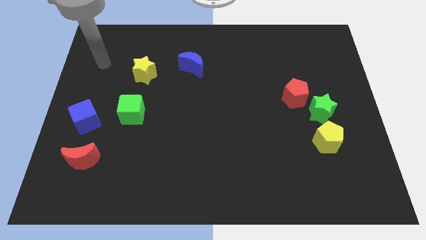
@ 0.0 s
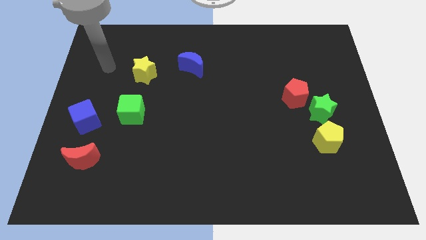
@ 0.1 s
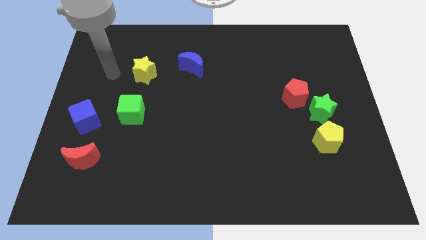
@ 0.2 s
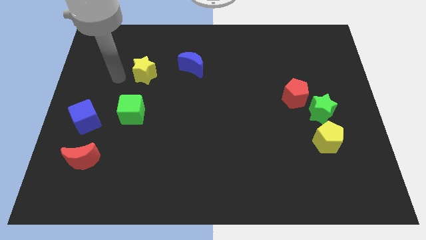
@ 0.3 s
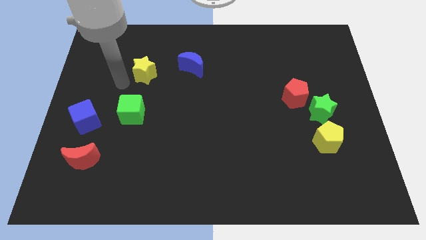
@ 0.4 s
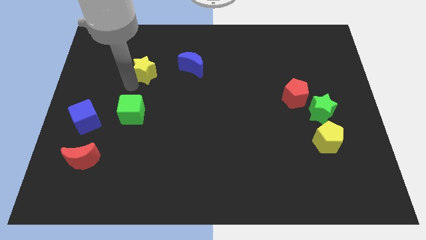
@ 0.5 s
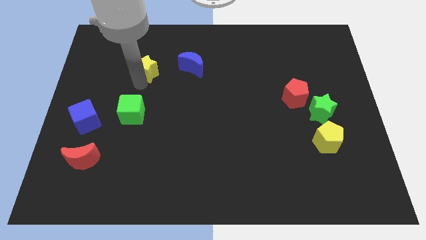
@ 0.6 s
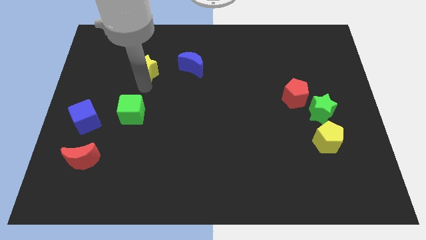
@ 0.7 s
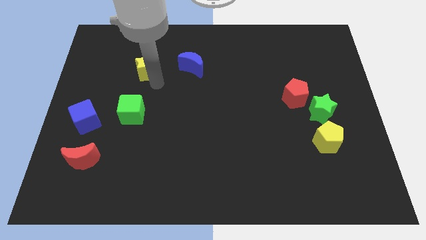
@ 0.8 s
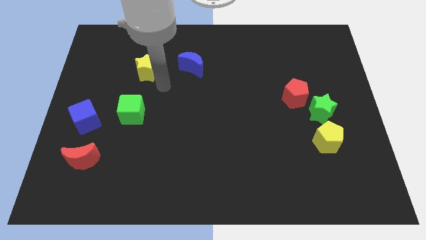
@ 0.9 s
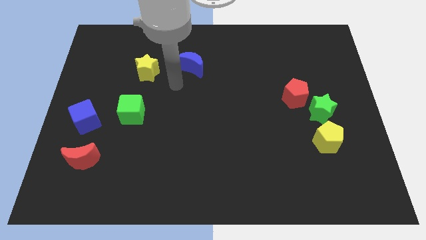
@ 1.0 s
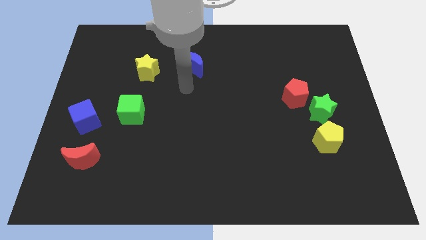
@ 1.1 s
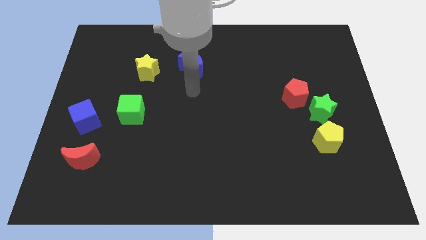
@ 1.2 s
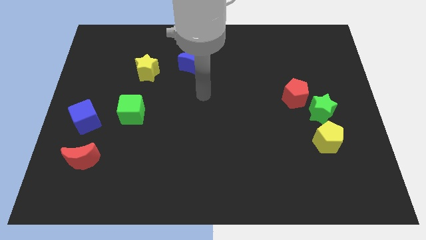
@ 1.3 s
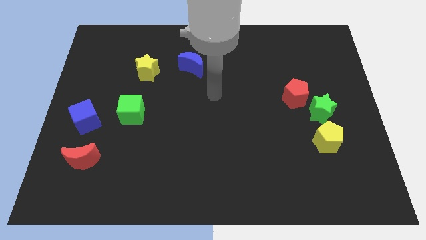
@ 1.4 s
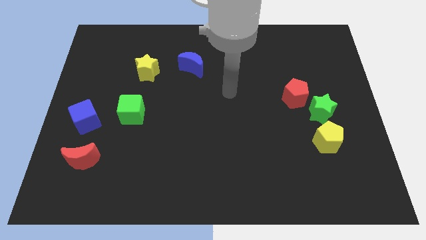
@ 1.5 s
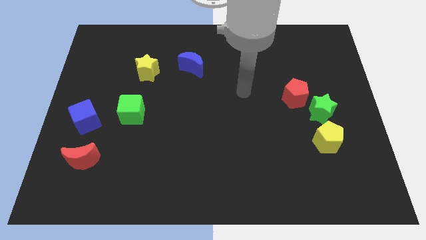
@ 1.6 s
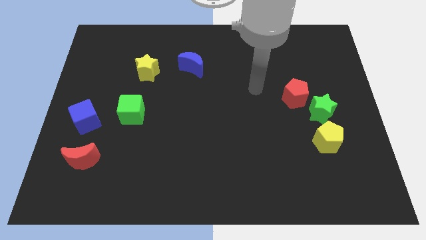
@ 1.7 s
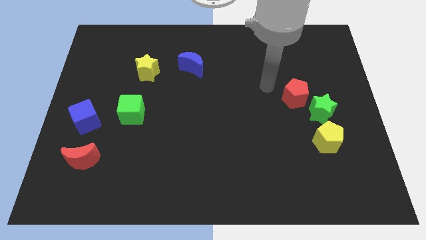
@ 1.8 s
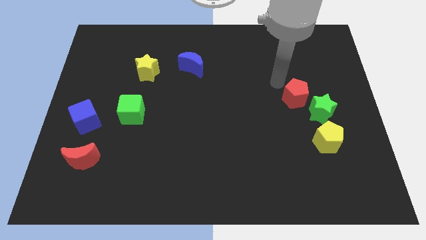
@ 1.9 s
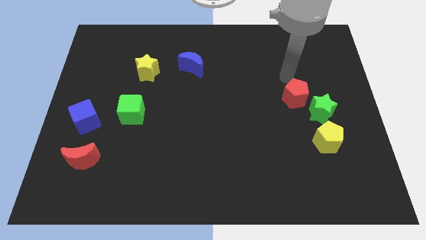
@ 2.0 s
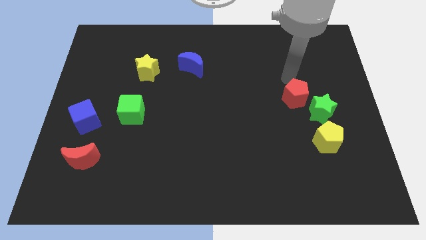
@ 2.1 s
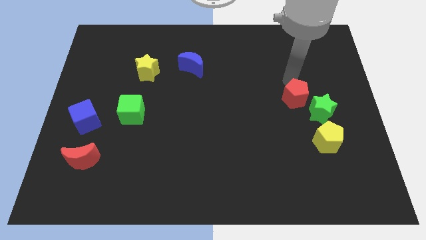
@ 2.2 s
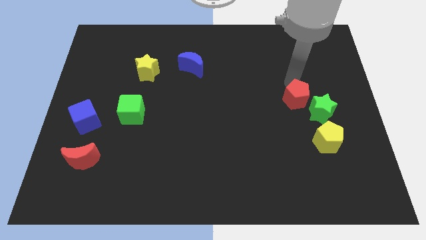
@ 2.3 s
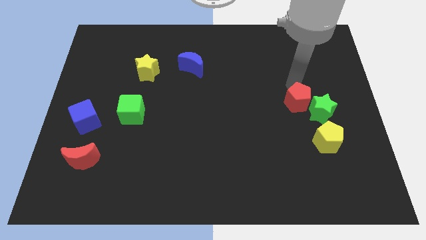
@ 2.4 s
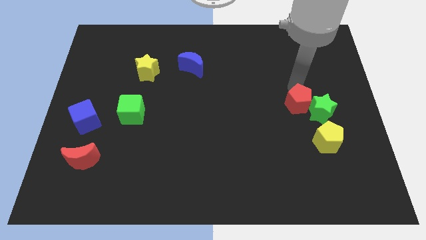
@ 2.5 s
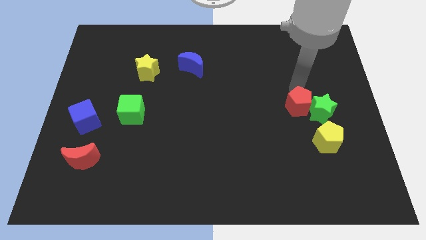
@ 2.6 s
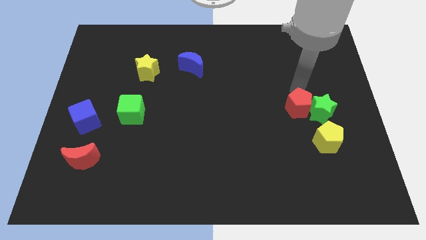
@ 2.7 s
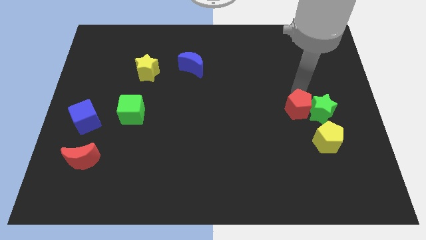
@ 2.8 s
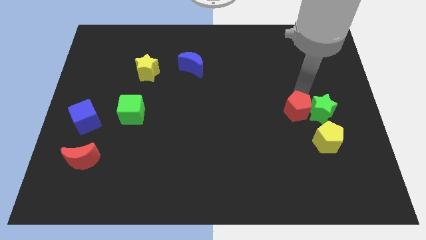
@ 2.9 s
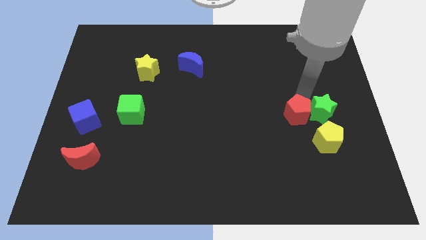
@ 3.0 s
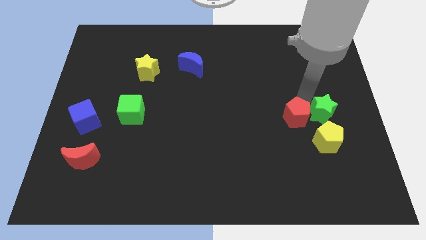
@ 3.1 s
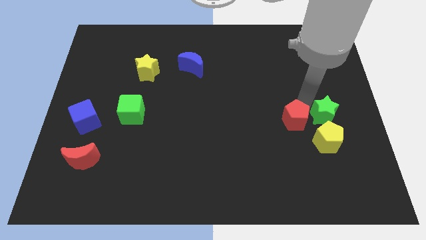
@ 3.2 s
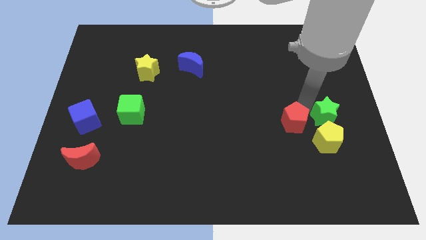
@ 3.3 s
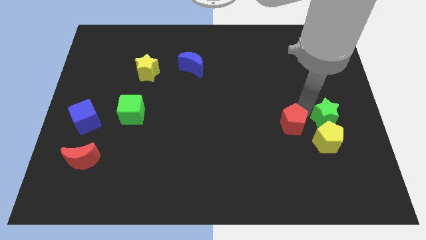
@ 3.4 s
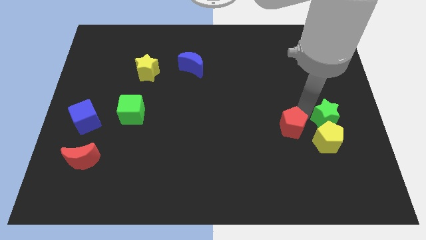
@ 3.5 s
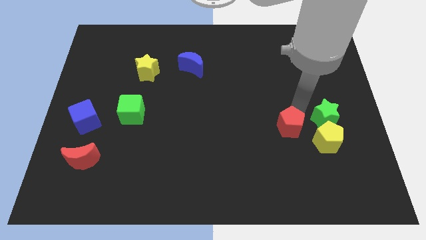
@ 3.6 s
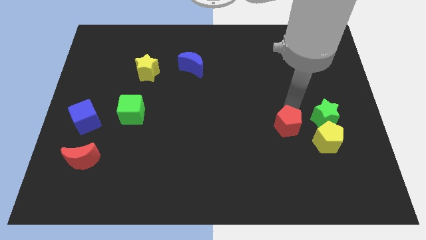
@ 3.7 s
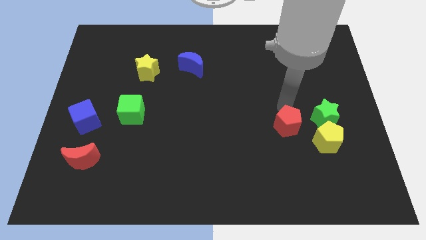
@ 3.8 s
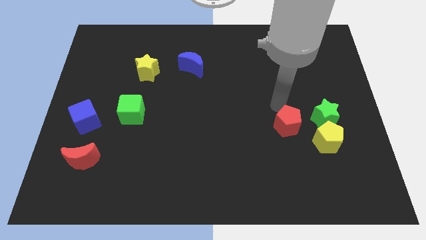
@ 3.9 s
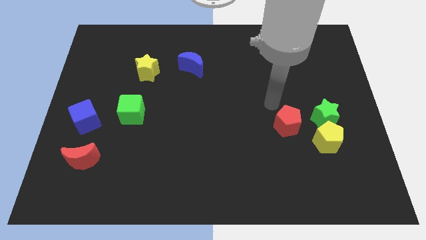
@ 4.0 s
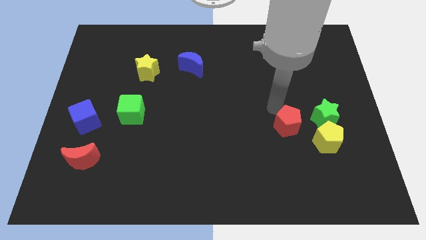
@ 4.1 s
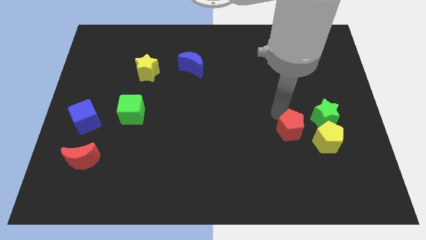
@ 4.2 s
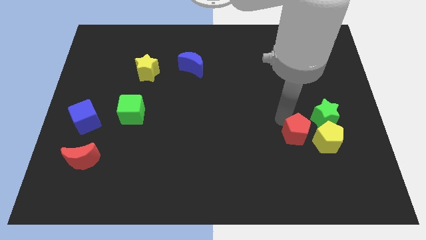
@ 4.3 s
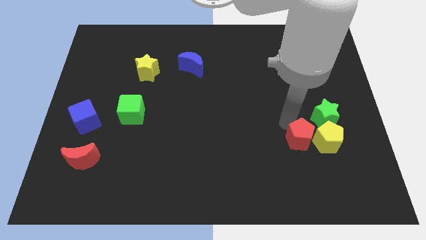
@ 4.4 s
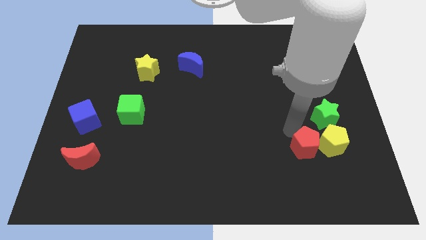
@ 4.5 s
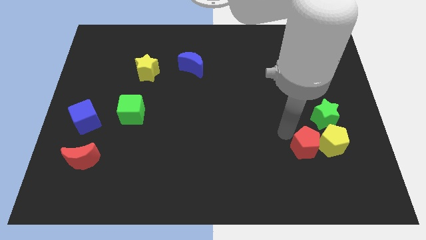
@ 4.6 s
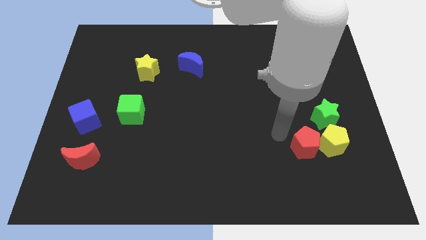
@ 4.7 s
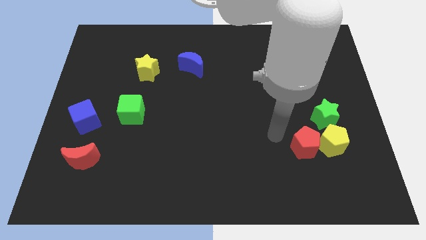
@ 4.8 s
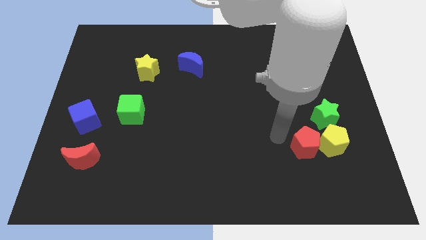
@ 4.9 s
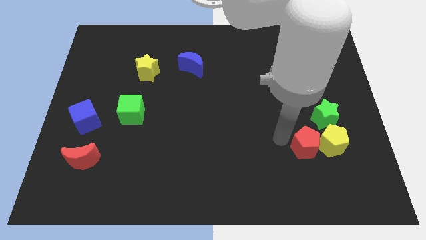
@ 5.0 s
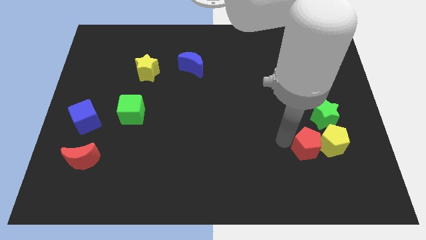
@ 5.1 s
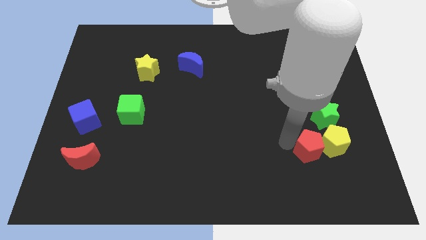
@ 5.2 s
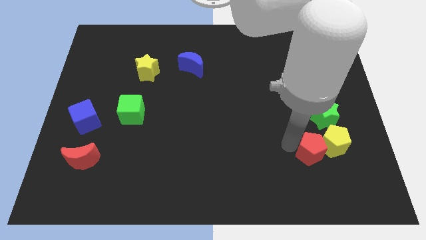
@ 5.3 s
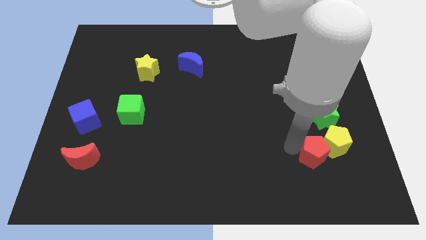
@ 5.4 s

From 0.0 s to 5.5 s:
move the red pentagon below the green star

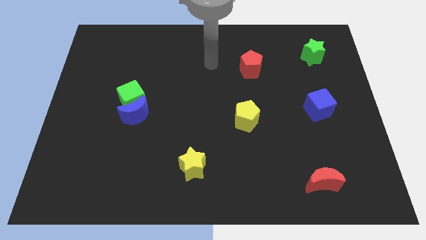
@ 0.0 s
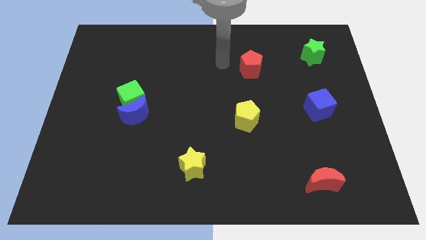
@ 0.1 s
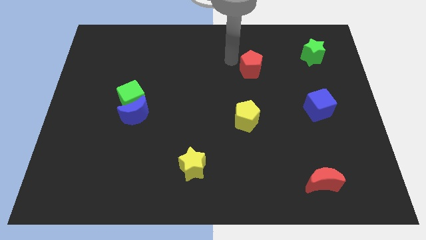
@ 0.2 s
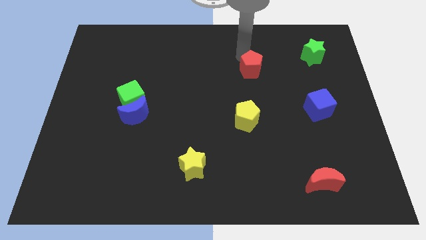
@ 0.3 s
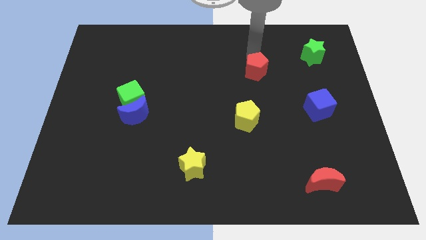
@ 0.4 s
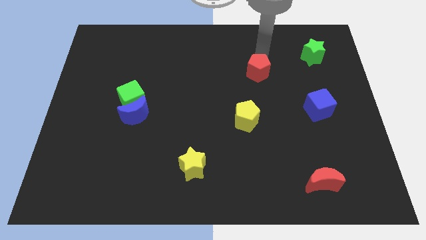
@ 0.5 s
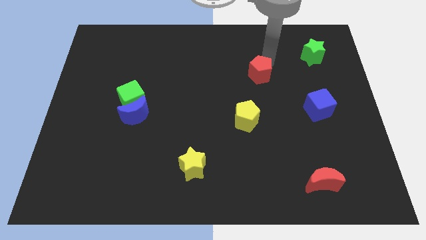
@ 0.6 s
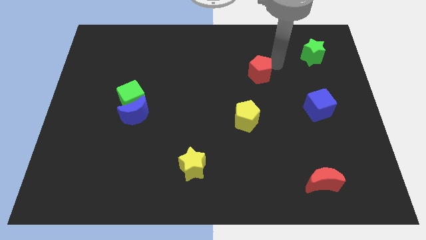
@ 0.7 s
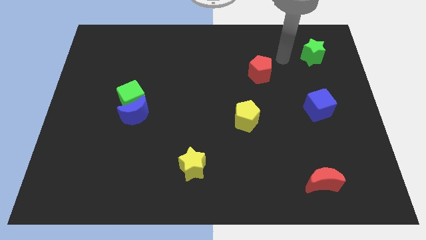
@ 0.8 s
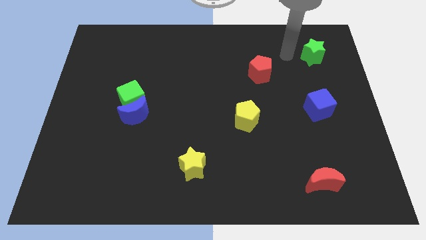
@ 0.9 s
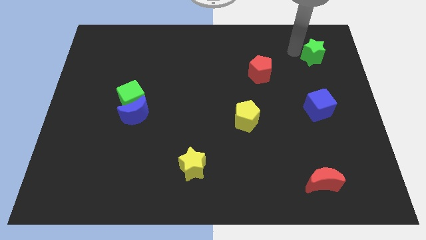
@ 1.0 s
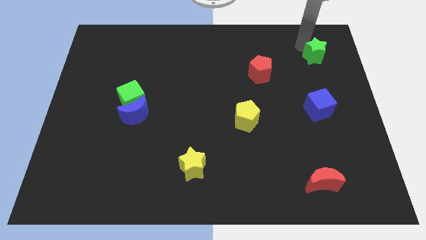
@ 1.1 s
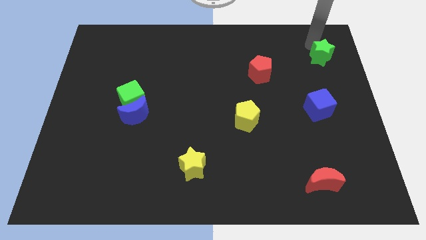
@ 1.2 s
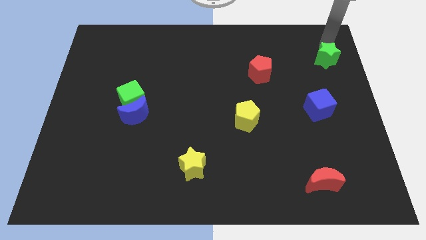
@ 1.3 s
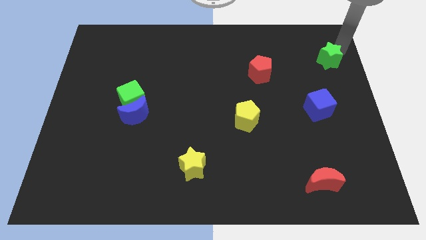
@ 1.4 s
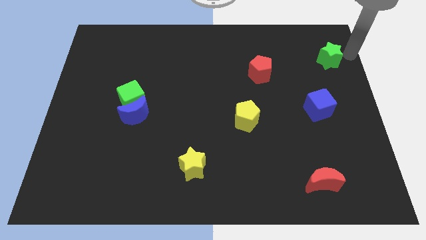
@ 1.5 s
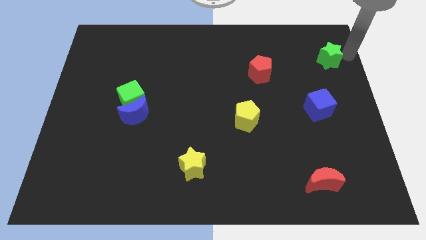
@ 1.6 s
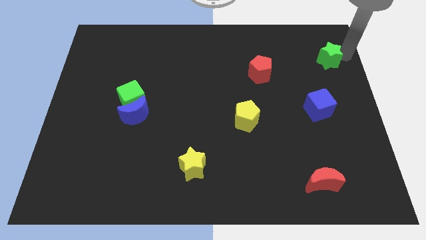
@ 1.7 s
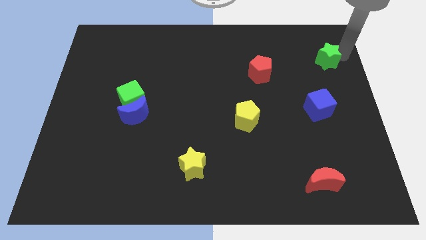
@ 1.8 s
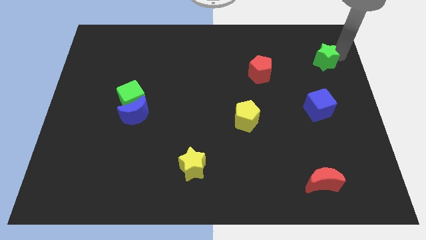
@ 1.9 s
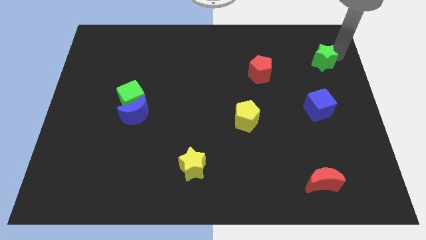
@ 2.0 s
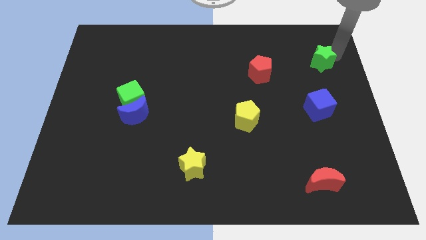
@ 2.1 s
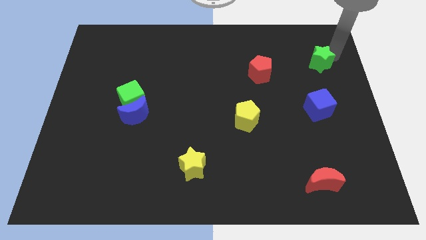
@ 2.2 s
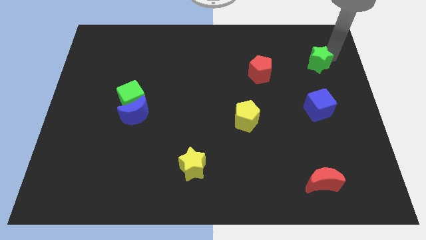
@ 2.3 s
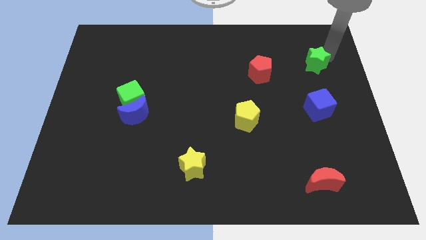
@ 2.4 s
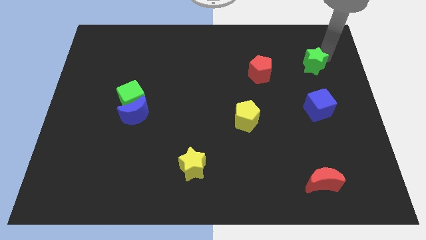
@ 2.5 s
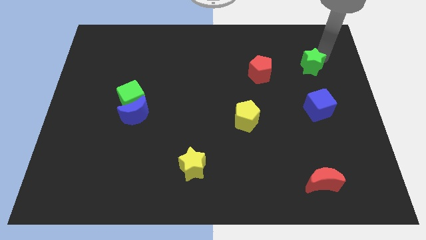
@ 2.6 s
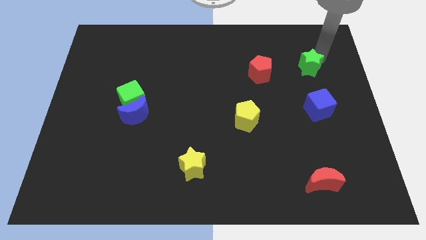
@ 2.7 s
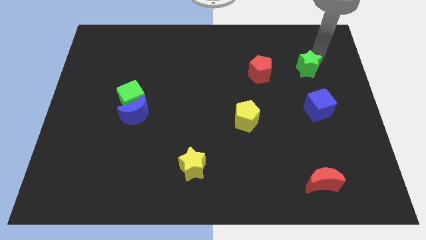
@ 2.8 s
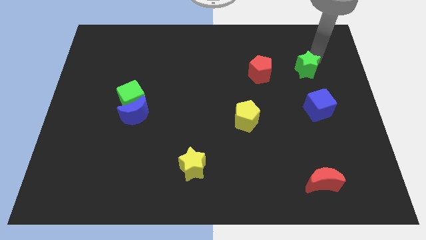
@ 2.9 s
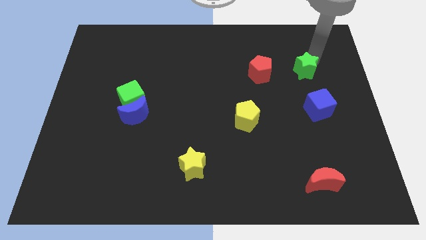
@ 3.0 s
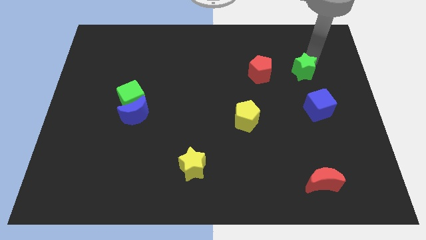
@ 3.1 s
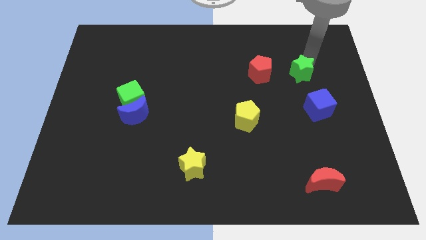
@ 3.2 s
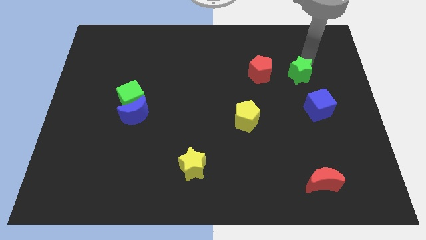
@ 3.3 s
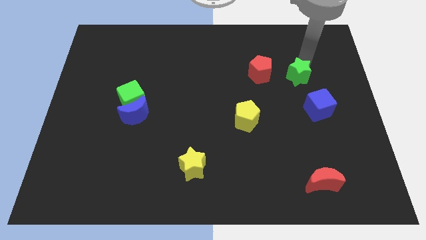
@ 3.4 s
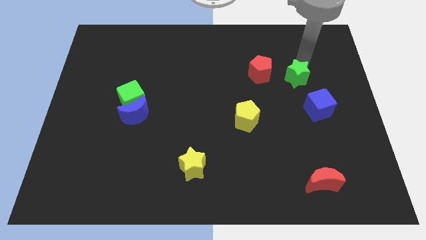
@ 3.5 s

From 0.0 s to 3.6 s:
slide the green star diagonally up and to the left of the blue cube
